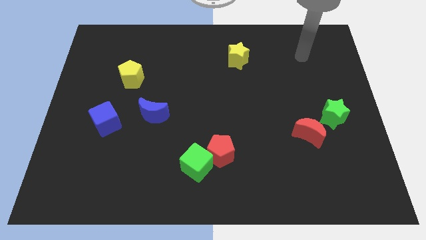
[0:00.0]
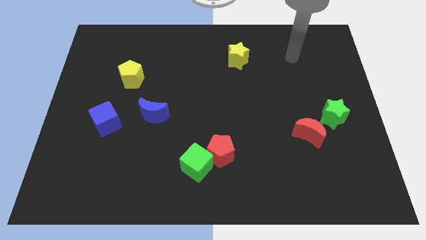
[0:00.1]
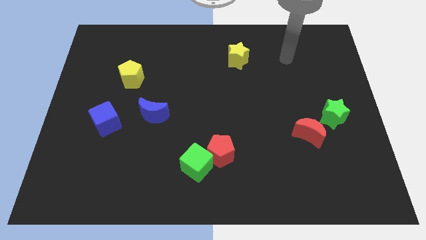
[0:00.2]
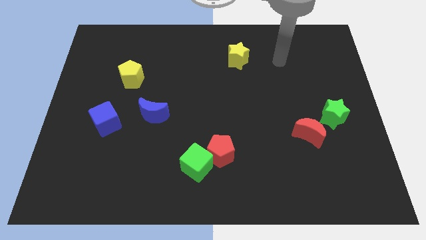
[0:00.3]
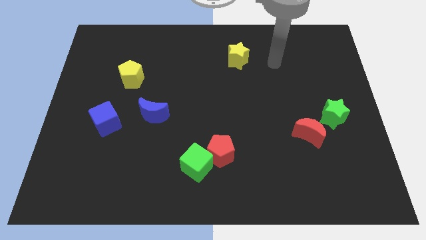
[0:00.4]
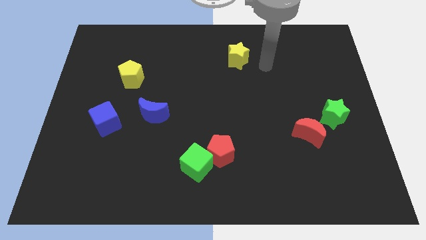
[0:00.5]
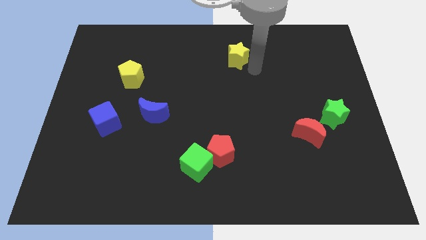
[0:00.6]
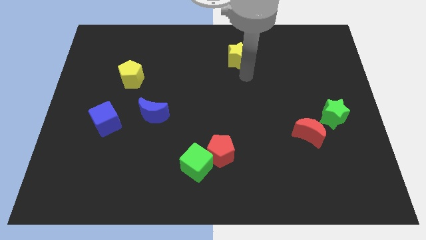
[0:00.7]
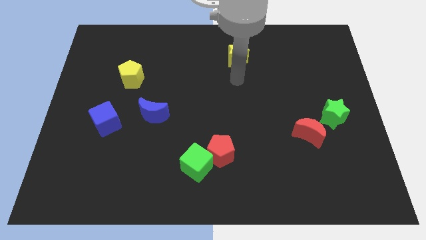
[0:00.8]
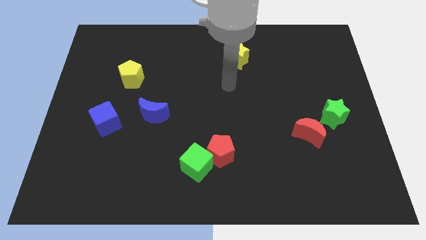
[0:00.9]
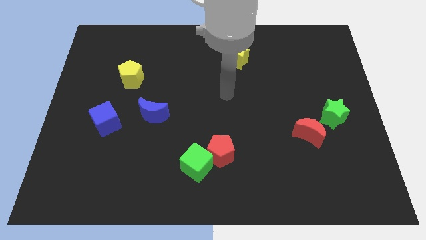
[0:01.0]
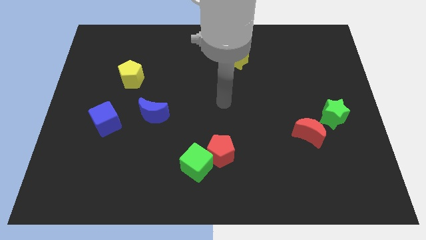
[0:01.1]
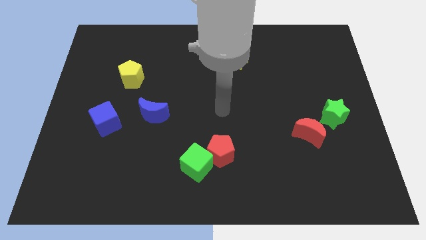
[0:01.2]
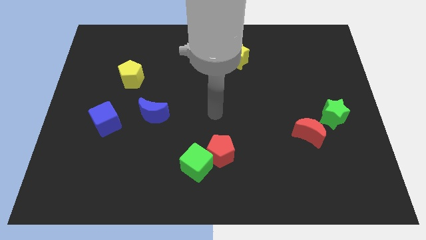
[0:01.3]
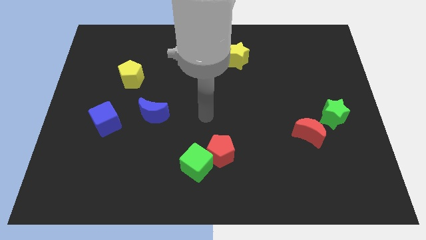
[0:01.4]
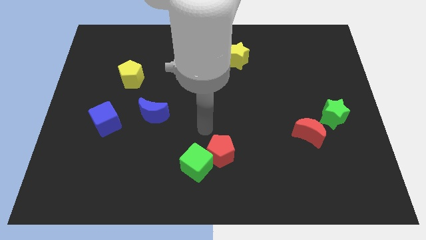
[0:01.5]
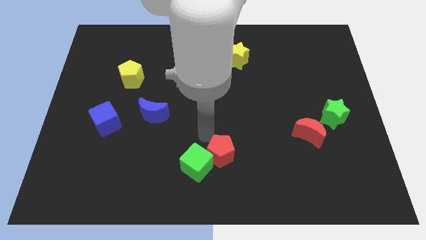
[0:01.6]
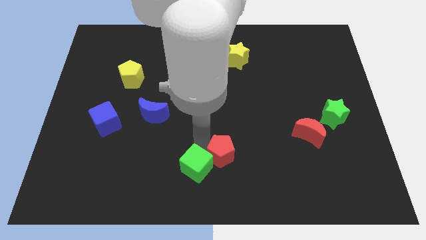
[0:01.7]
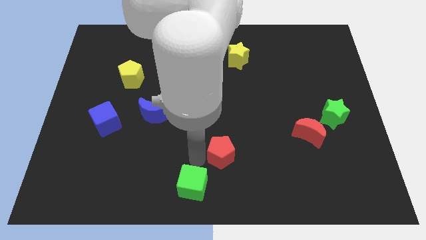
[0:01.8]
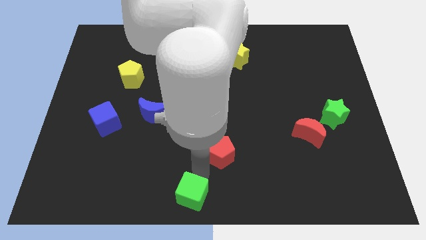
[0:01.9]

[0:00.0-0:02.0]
pull the red pentagon apart from the green cube

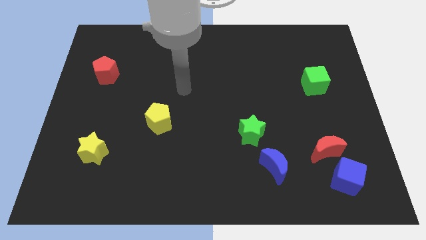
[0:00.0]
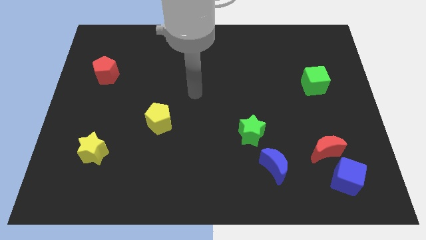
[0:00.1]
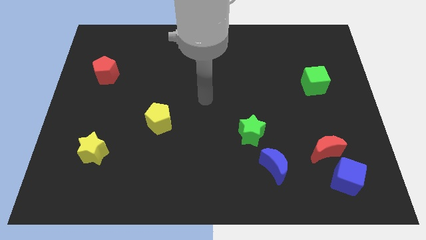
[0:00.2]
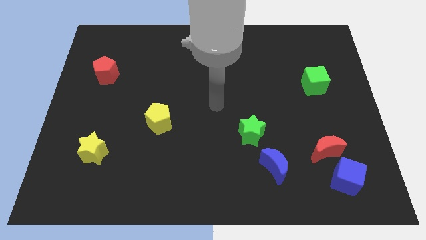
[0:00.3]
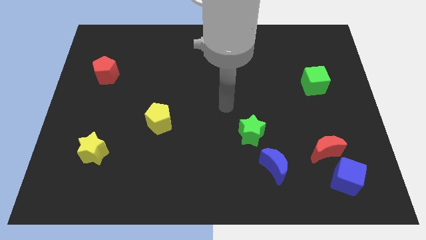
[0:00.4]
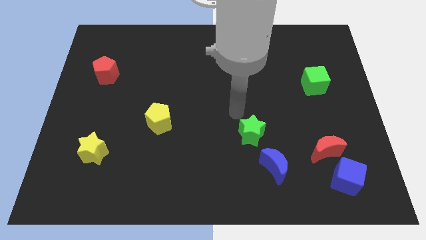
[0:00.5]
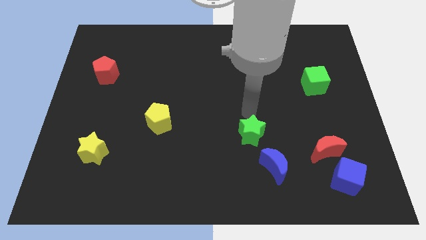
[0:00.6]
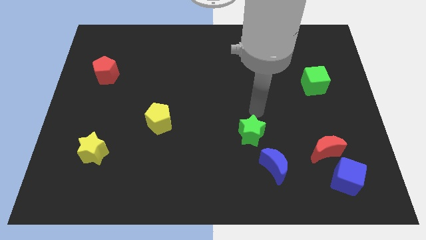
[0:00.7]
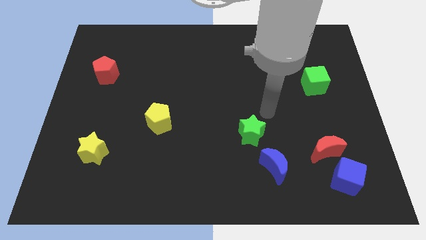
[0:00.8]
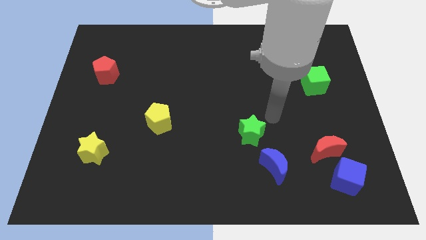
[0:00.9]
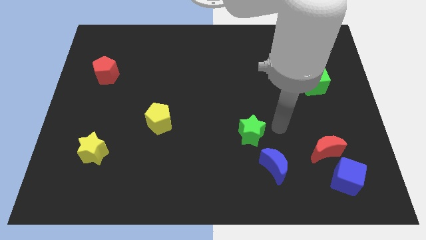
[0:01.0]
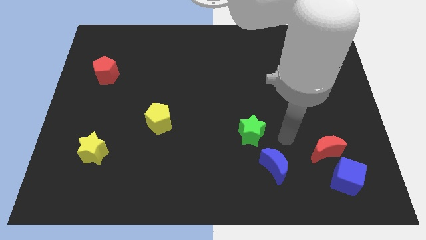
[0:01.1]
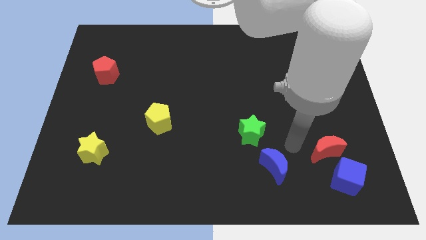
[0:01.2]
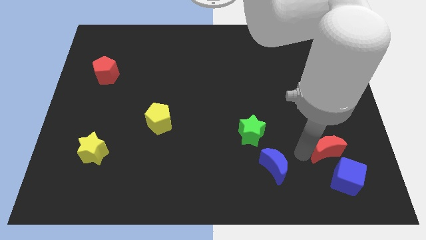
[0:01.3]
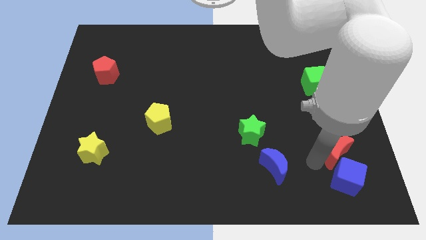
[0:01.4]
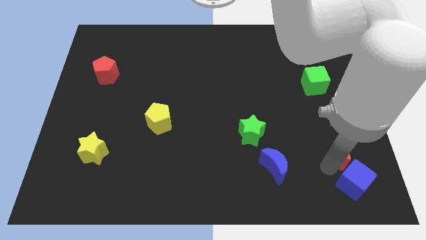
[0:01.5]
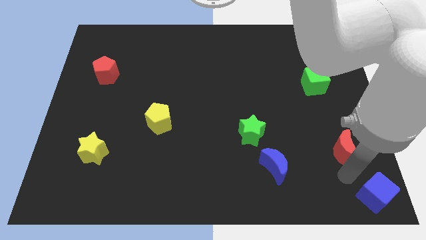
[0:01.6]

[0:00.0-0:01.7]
pull the red moon apart from the blue cube

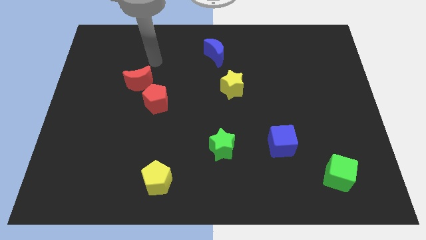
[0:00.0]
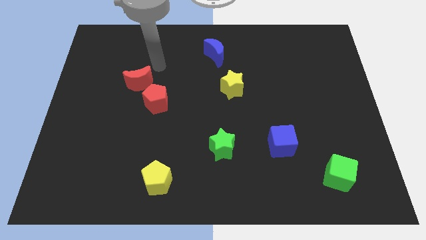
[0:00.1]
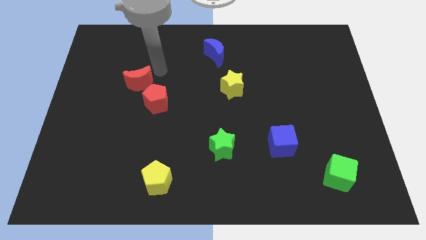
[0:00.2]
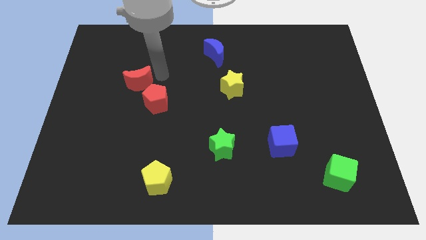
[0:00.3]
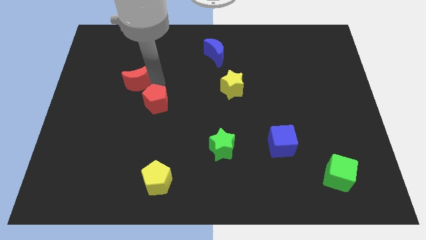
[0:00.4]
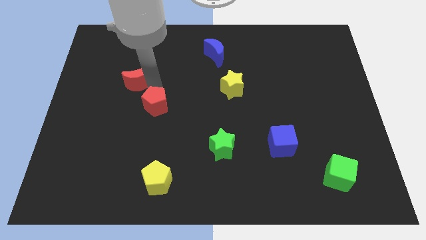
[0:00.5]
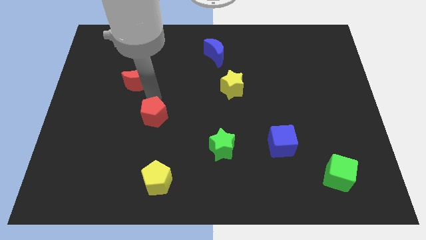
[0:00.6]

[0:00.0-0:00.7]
separate the red moon from the red pentagon

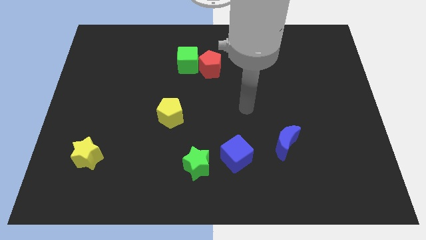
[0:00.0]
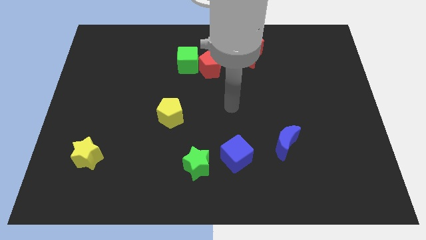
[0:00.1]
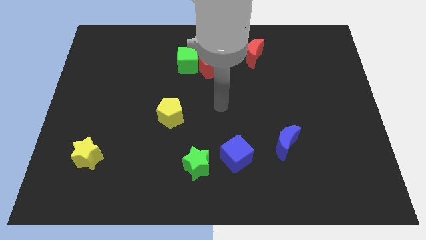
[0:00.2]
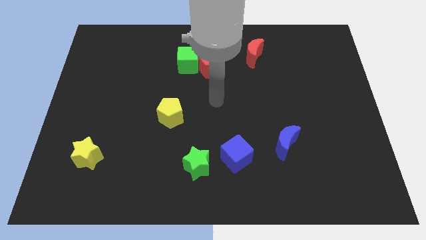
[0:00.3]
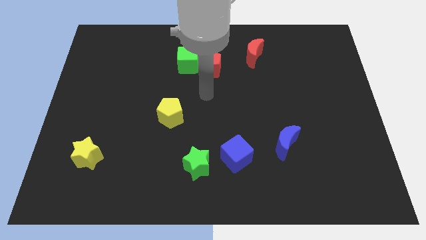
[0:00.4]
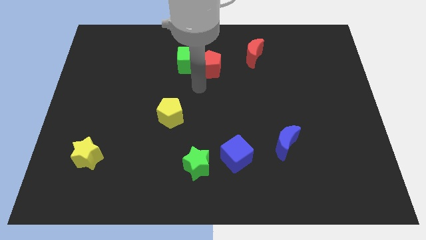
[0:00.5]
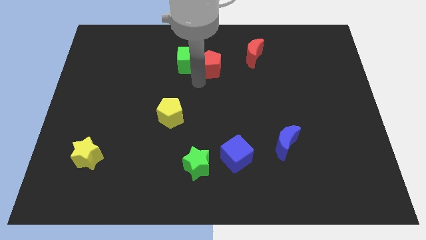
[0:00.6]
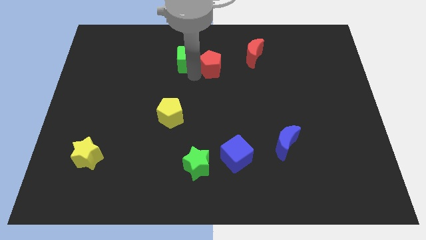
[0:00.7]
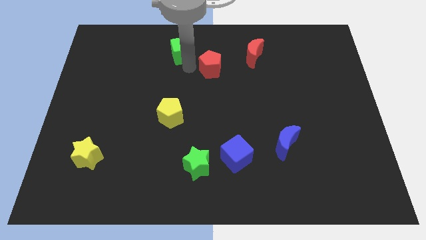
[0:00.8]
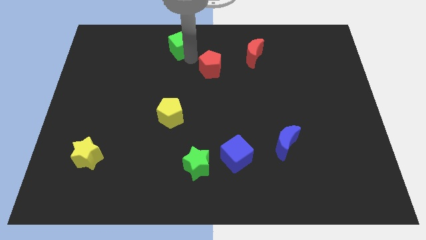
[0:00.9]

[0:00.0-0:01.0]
move the red pentagon away from the green cube

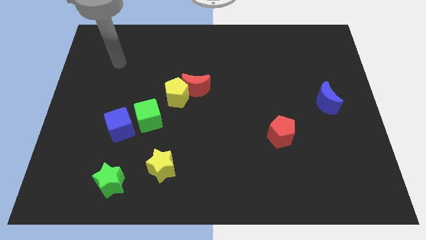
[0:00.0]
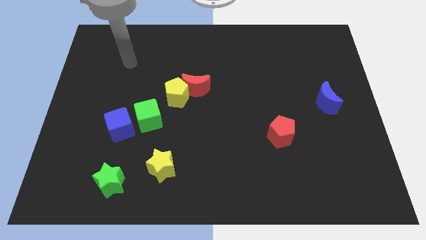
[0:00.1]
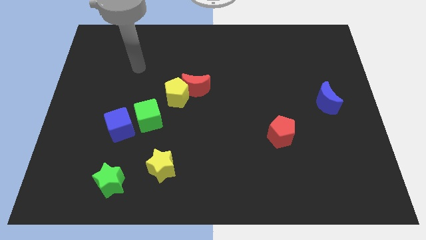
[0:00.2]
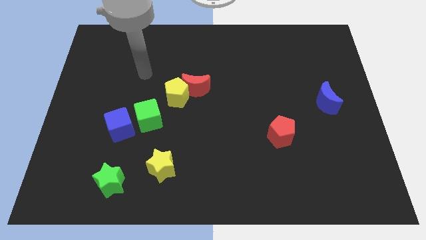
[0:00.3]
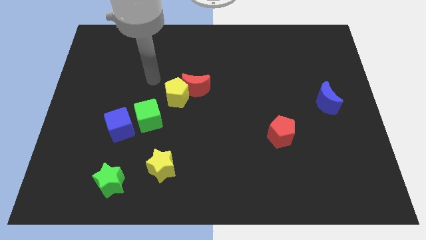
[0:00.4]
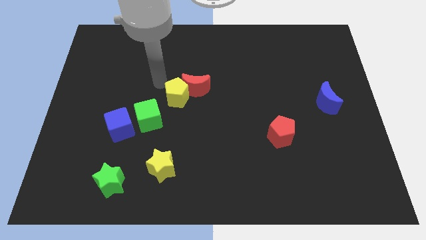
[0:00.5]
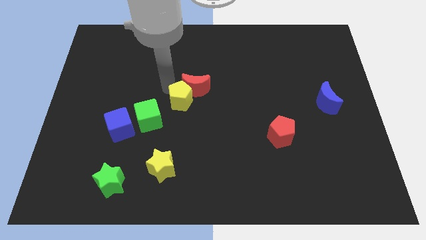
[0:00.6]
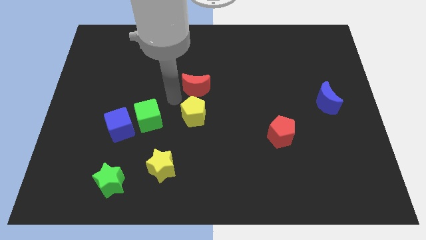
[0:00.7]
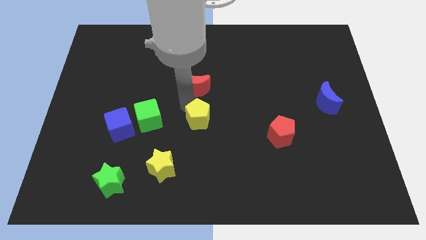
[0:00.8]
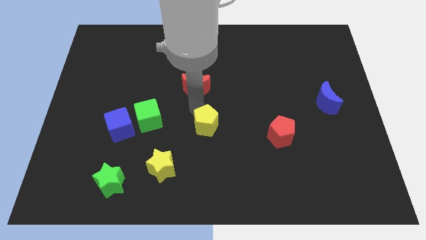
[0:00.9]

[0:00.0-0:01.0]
move the red moon away from the yellow pentagon

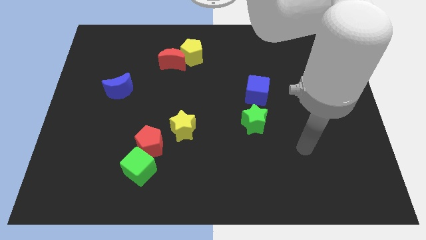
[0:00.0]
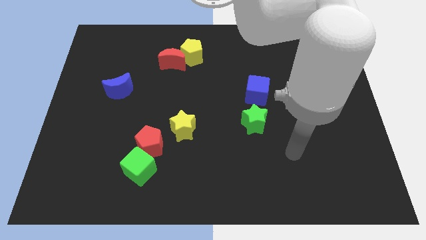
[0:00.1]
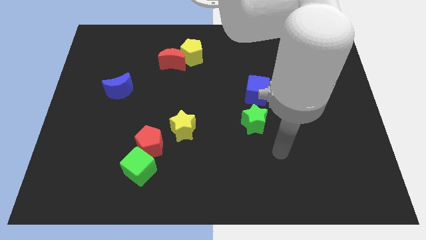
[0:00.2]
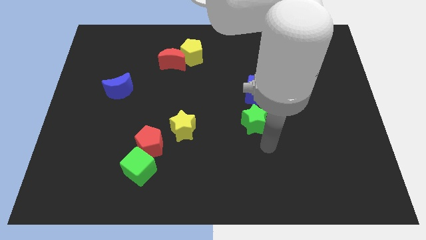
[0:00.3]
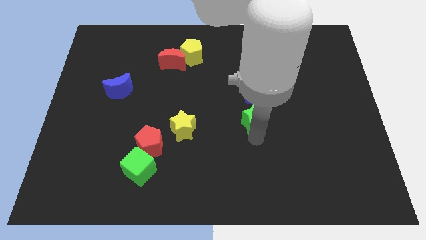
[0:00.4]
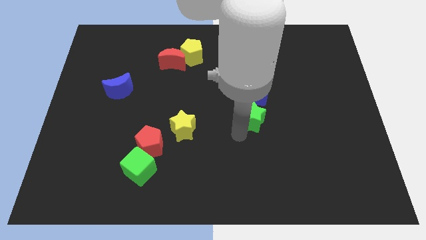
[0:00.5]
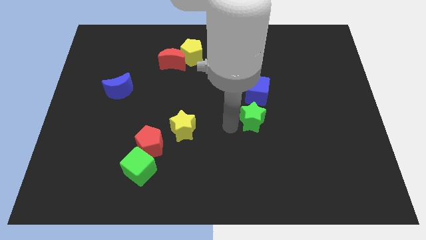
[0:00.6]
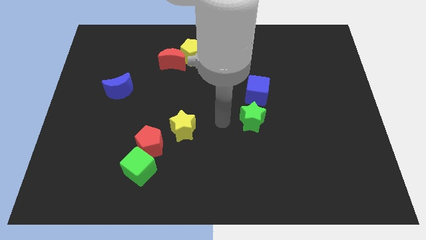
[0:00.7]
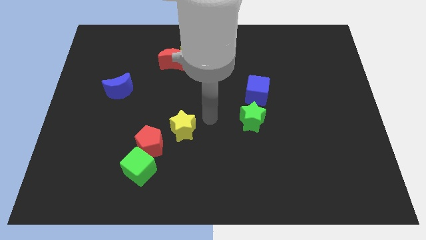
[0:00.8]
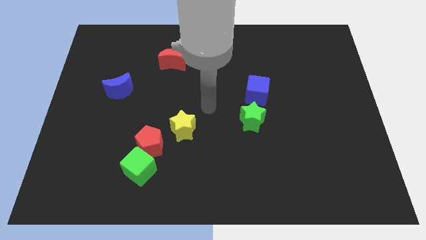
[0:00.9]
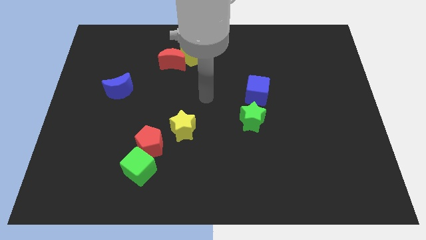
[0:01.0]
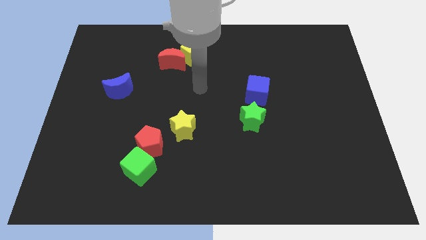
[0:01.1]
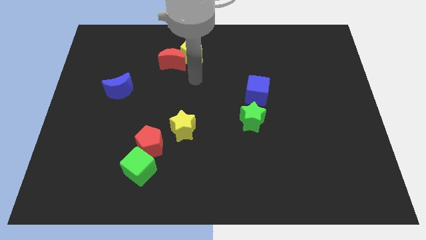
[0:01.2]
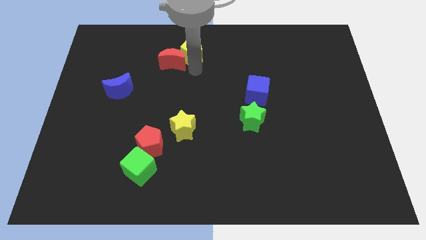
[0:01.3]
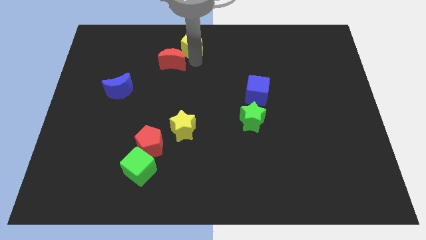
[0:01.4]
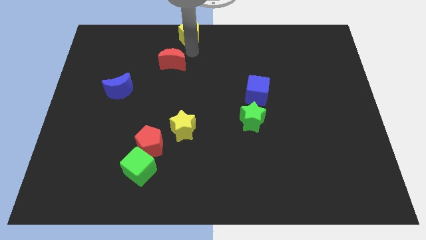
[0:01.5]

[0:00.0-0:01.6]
separate the red moon from the yellow pentagon

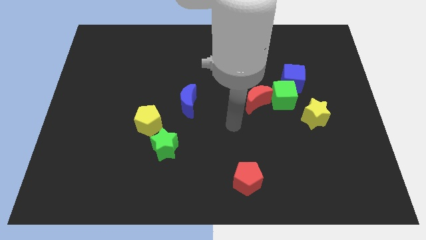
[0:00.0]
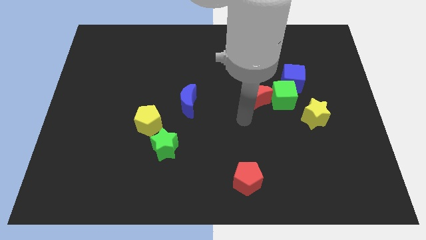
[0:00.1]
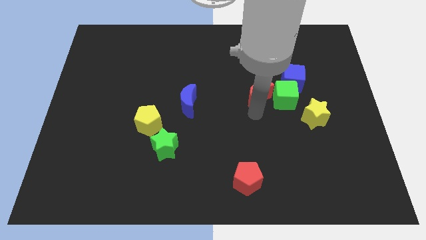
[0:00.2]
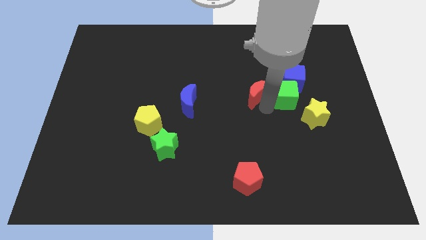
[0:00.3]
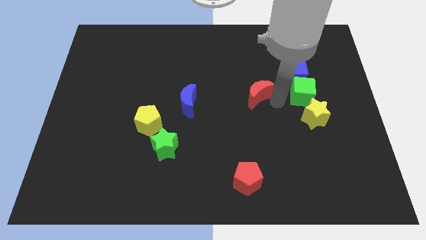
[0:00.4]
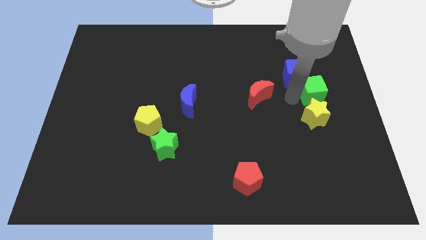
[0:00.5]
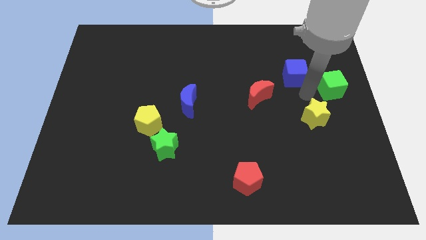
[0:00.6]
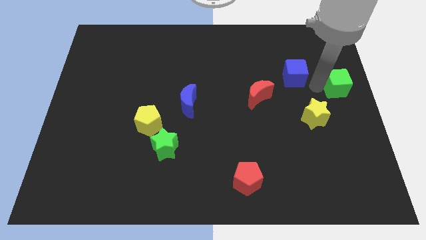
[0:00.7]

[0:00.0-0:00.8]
move the blue cube away from the green cube

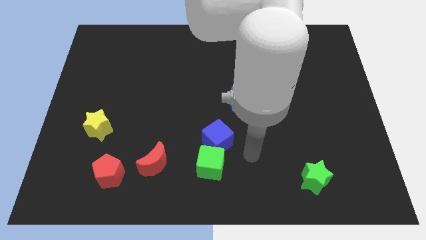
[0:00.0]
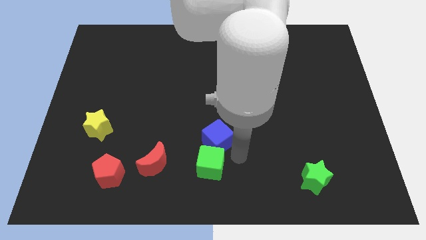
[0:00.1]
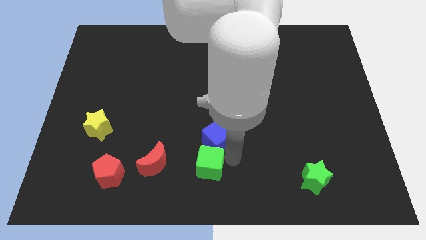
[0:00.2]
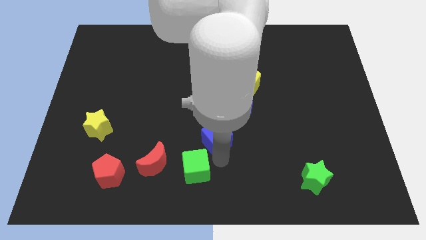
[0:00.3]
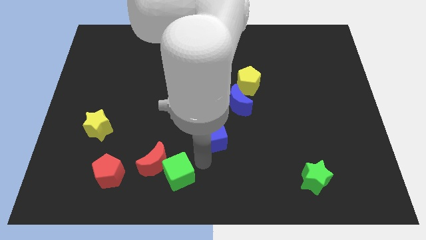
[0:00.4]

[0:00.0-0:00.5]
pull the blue cube apart from the green cube
